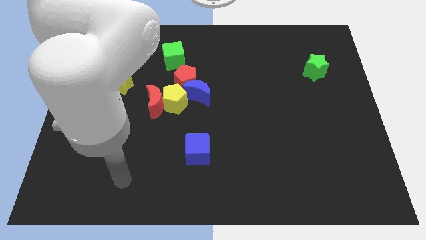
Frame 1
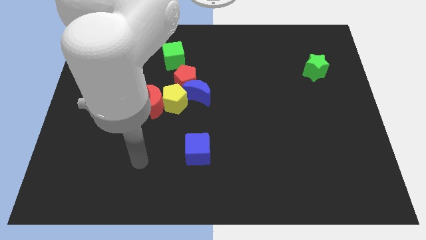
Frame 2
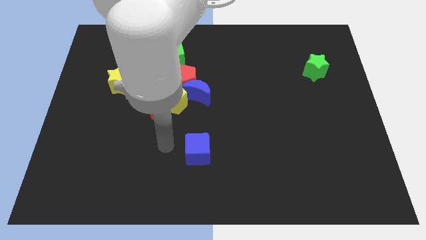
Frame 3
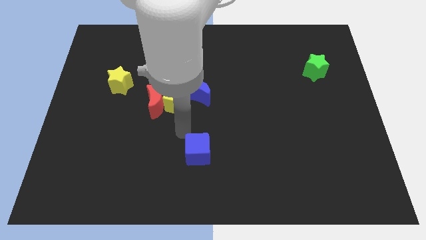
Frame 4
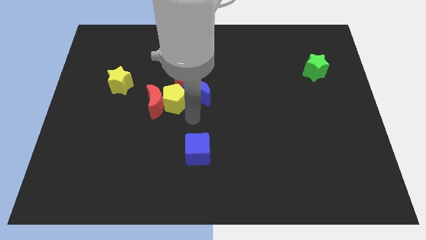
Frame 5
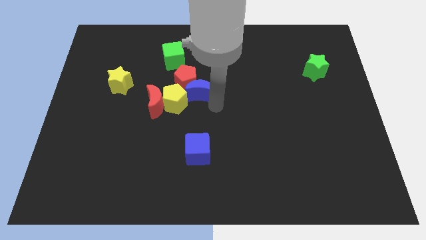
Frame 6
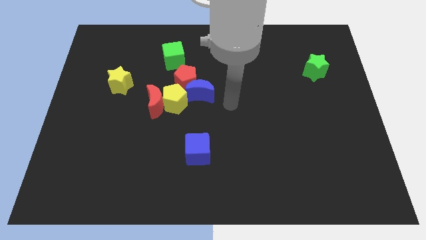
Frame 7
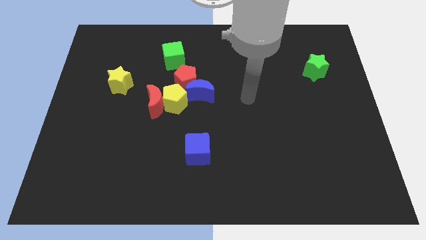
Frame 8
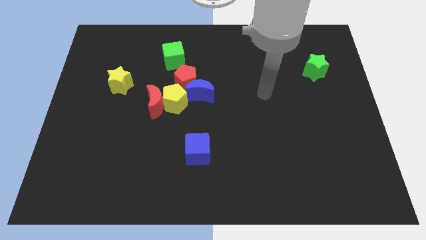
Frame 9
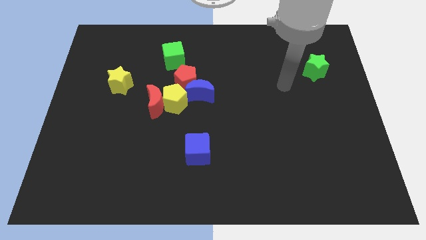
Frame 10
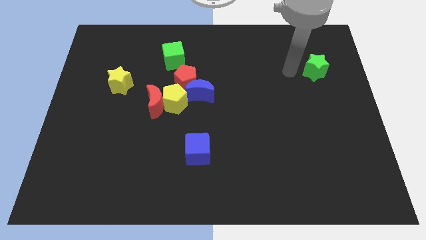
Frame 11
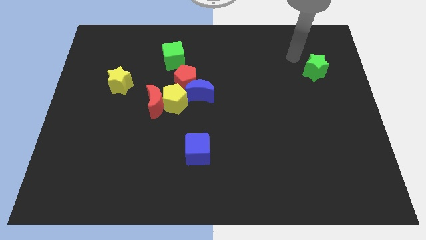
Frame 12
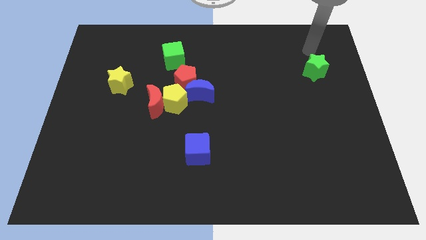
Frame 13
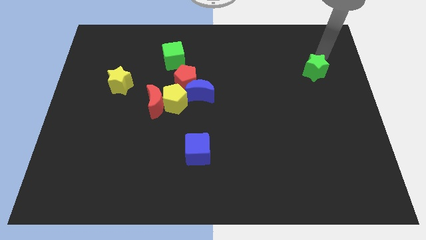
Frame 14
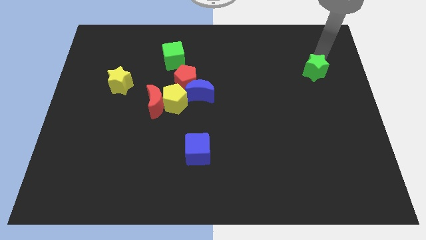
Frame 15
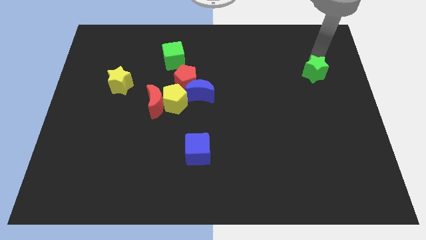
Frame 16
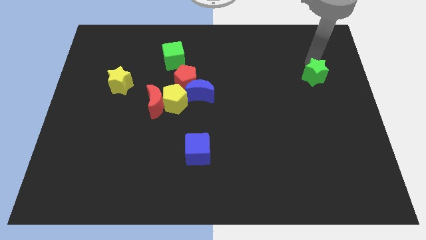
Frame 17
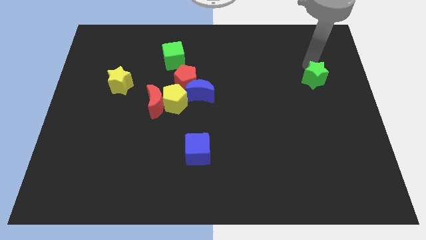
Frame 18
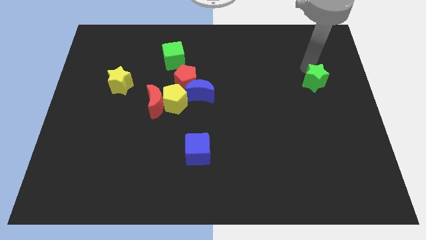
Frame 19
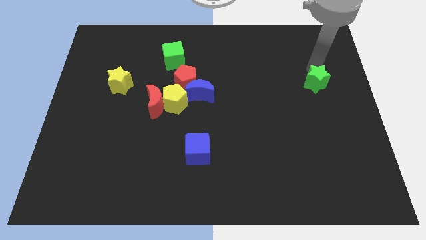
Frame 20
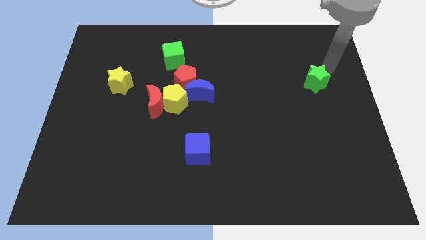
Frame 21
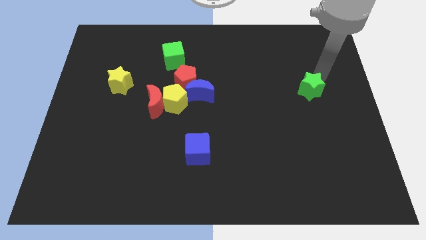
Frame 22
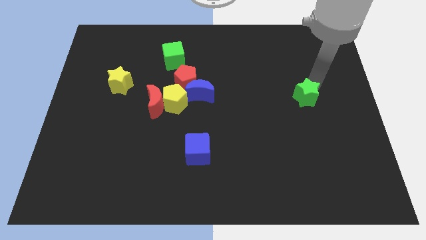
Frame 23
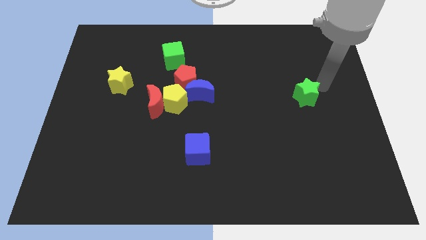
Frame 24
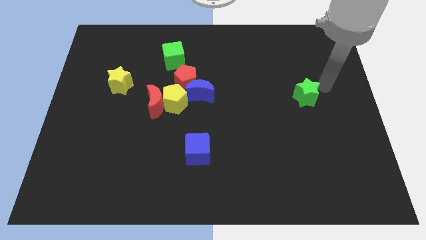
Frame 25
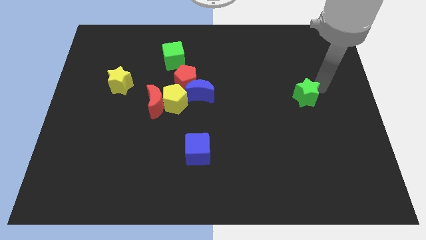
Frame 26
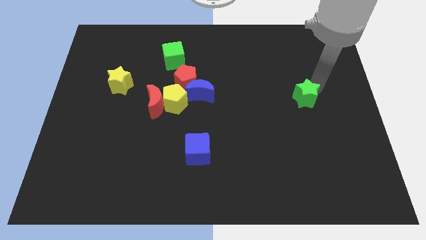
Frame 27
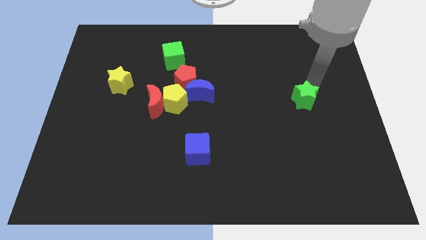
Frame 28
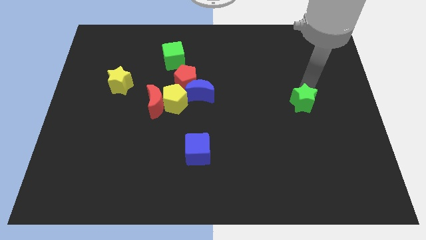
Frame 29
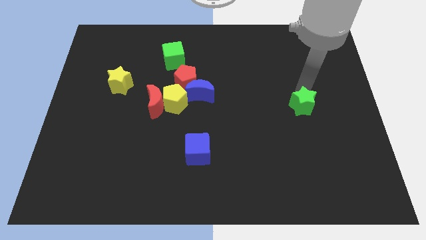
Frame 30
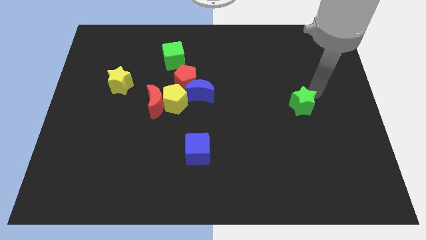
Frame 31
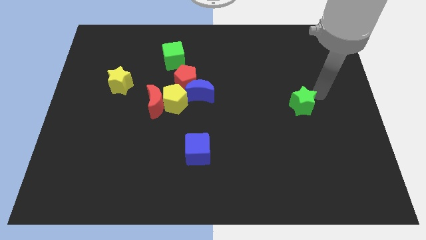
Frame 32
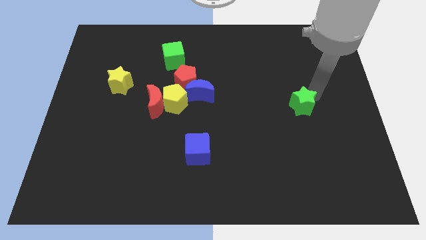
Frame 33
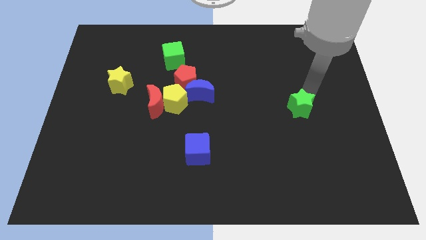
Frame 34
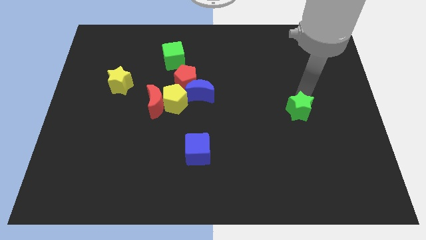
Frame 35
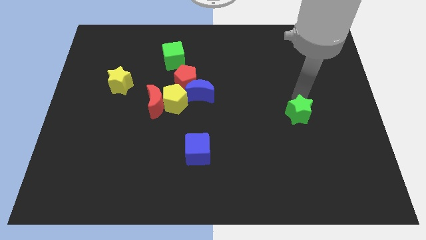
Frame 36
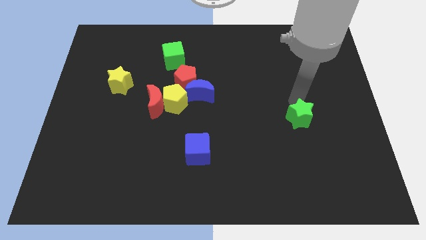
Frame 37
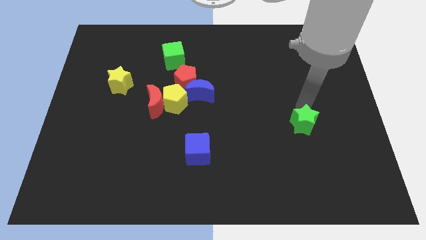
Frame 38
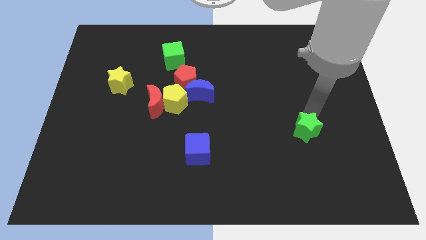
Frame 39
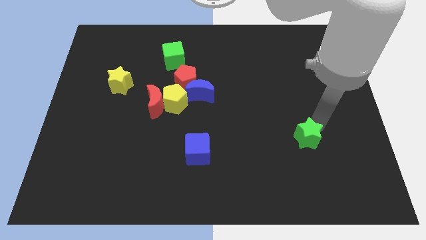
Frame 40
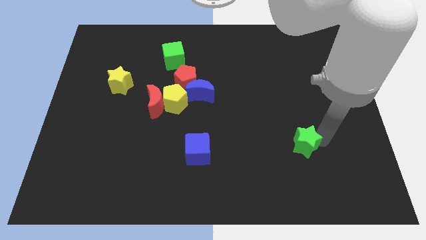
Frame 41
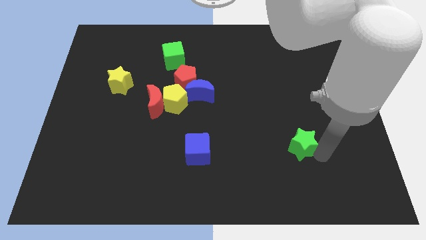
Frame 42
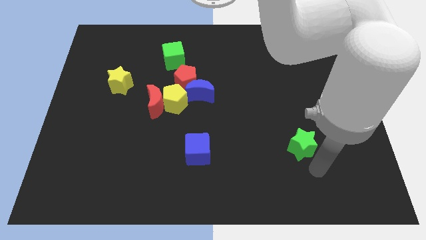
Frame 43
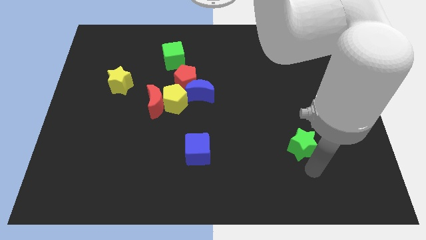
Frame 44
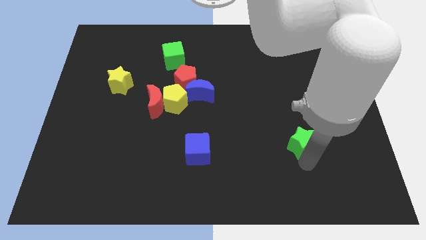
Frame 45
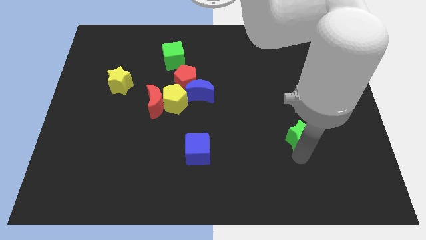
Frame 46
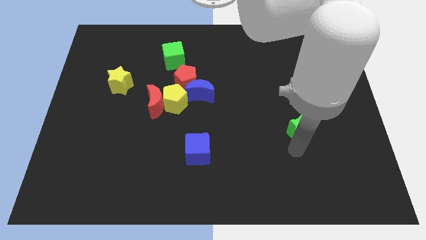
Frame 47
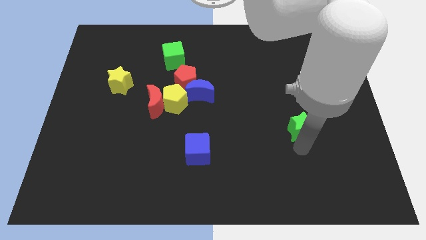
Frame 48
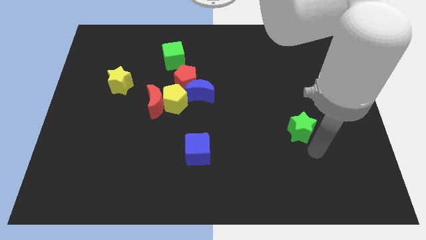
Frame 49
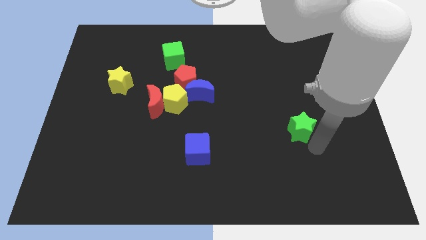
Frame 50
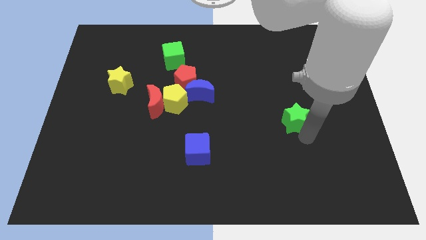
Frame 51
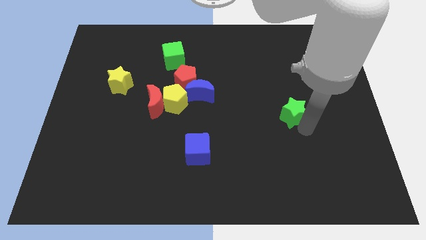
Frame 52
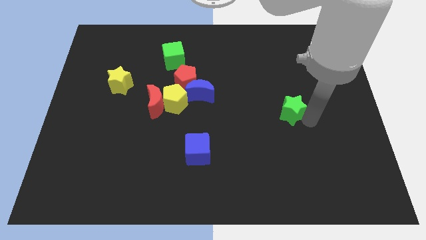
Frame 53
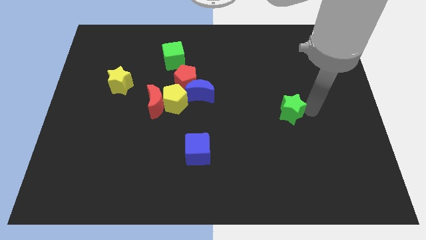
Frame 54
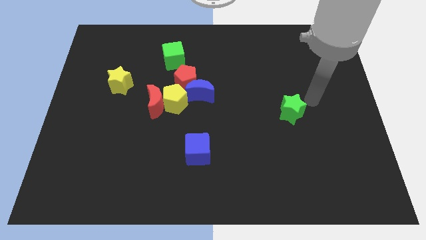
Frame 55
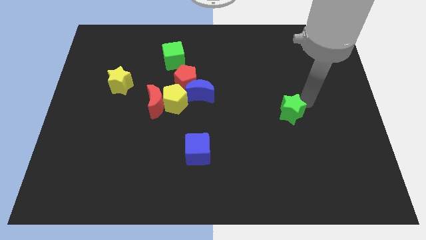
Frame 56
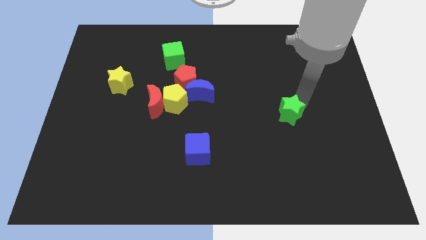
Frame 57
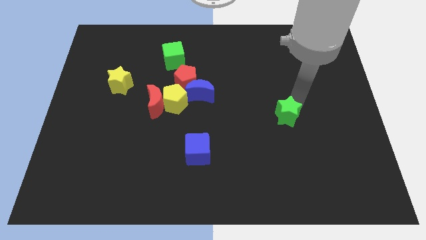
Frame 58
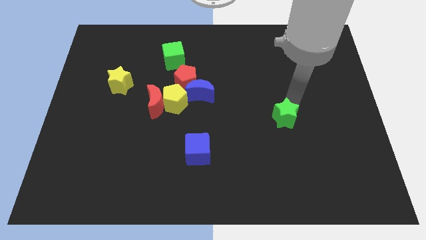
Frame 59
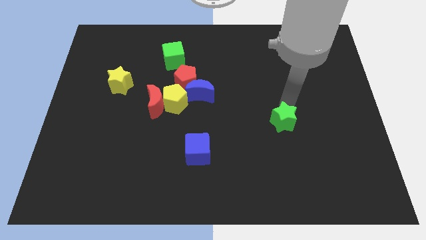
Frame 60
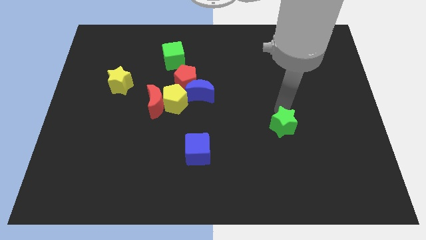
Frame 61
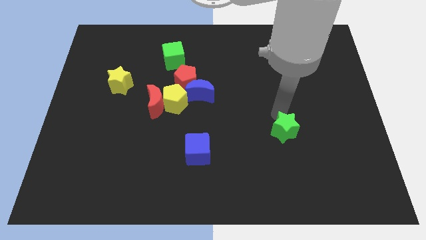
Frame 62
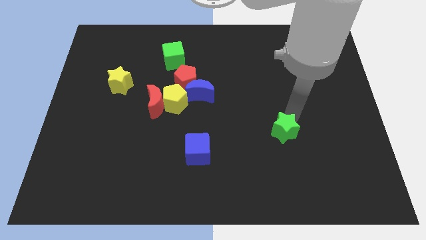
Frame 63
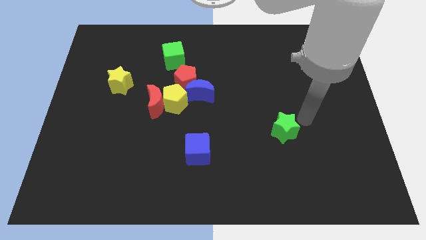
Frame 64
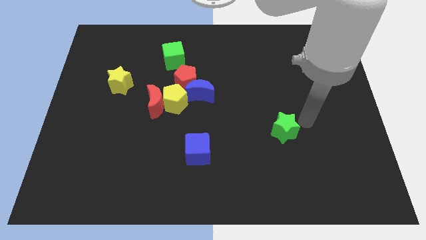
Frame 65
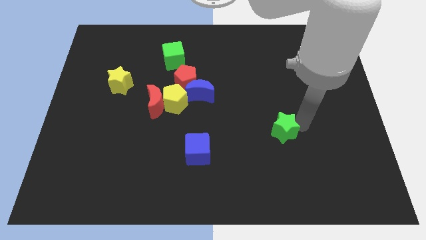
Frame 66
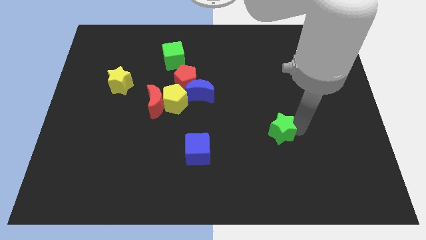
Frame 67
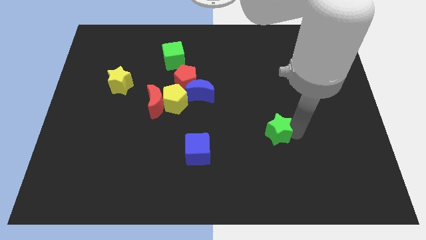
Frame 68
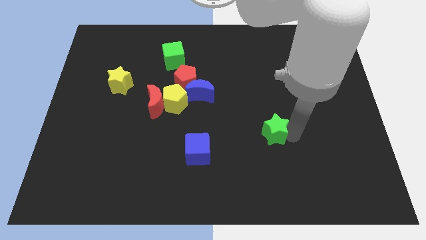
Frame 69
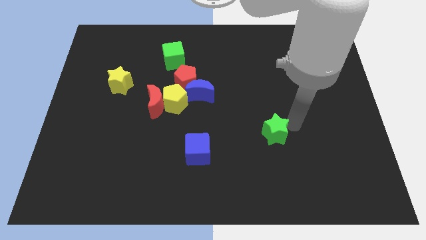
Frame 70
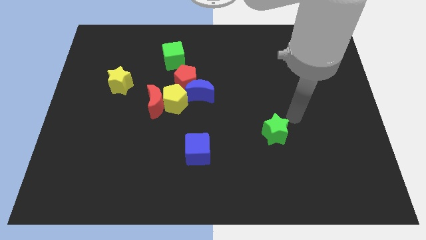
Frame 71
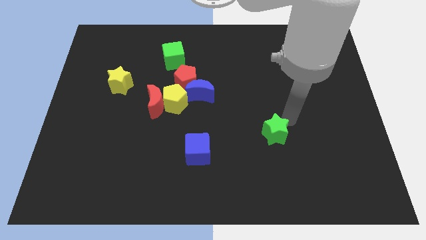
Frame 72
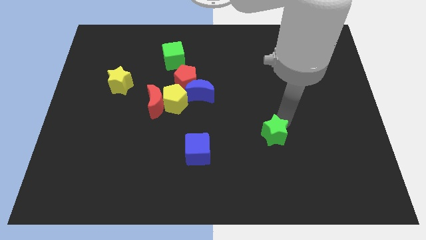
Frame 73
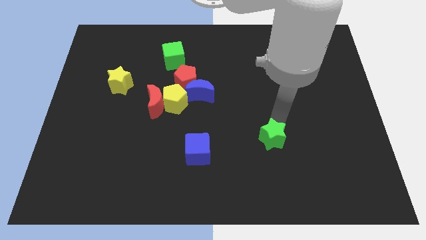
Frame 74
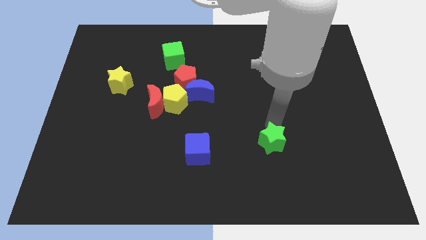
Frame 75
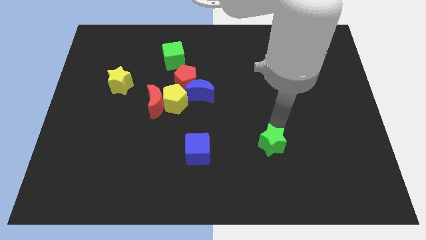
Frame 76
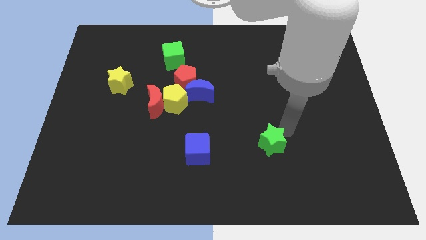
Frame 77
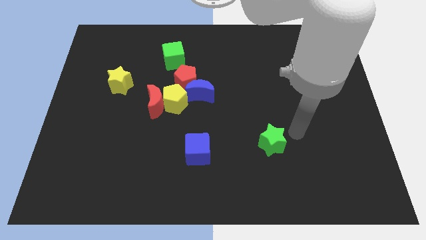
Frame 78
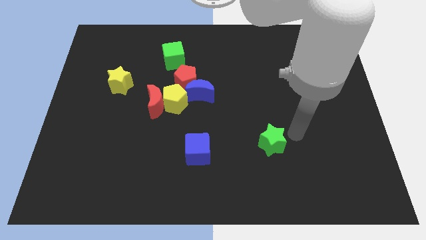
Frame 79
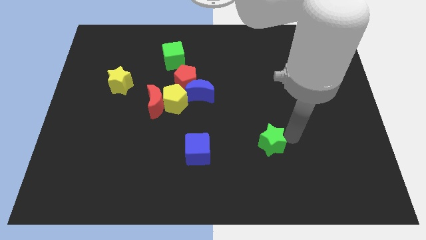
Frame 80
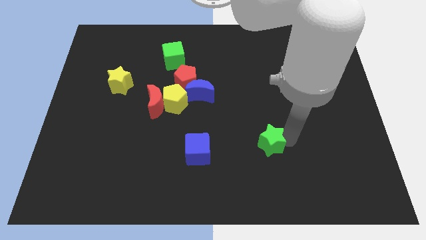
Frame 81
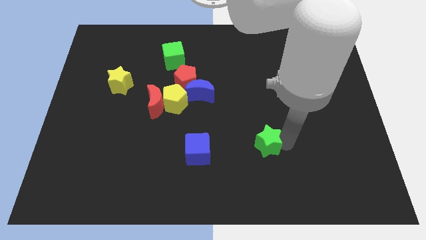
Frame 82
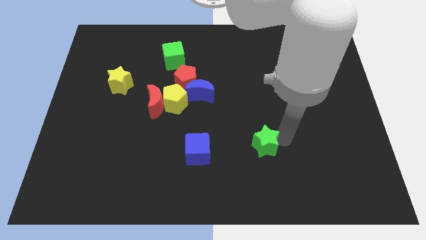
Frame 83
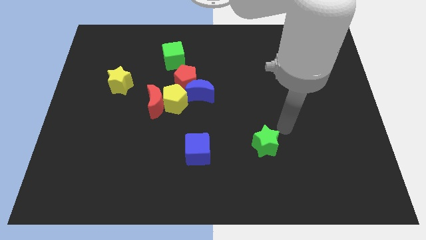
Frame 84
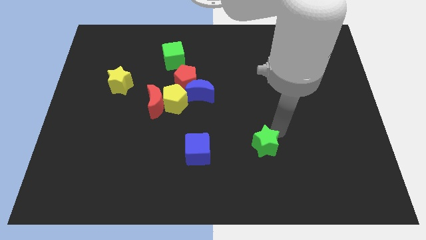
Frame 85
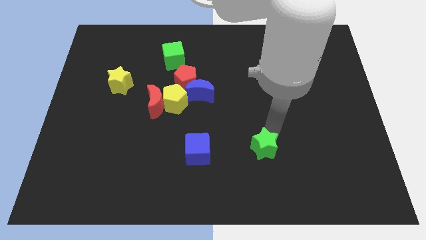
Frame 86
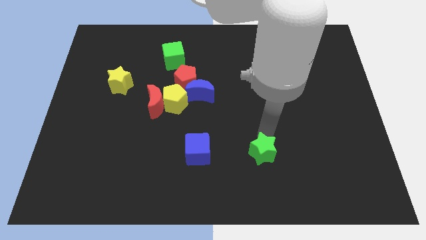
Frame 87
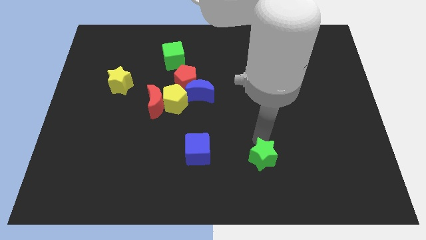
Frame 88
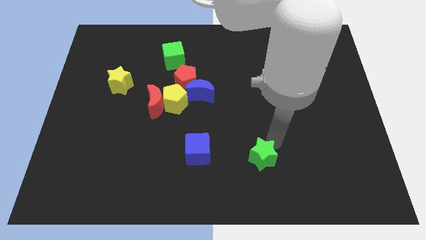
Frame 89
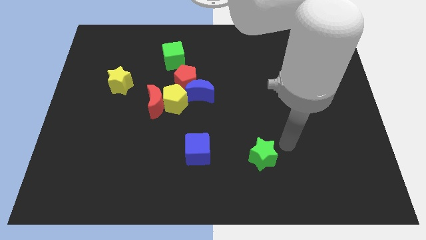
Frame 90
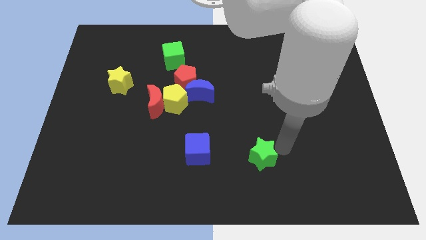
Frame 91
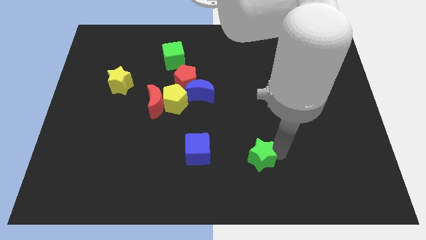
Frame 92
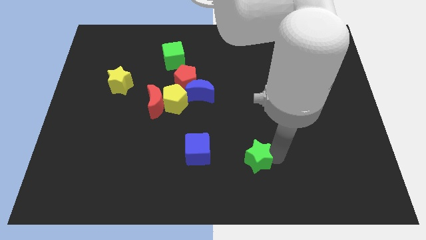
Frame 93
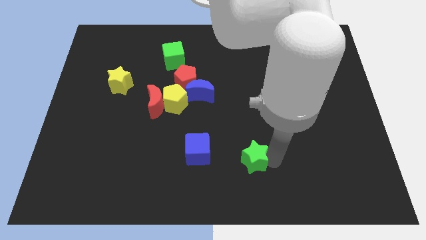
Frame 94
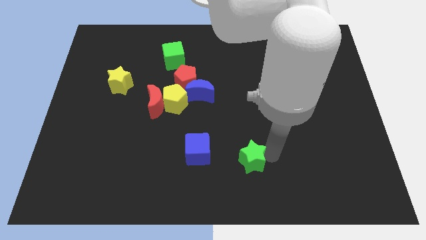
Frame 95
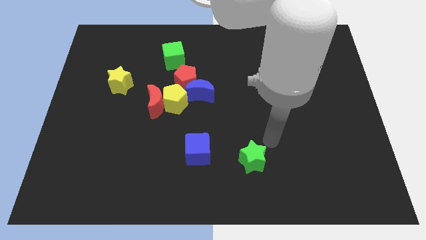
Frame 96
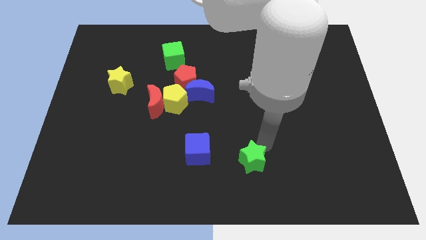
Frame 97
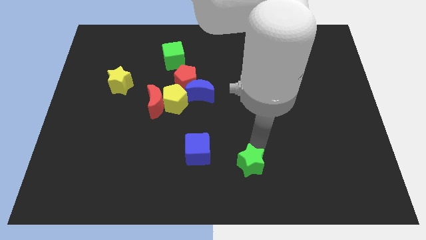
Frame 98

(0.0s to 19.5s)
move the green star to the bottom side
